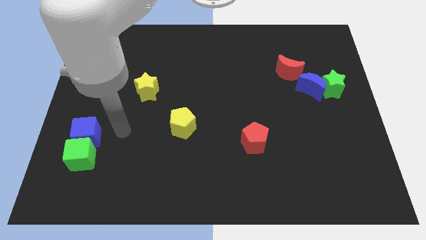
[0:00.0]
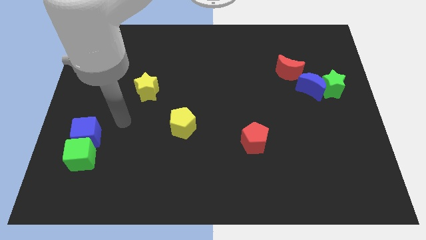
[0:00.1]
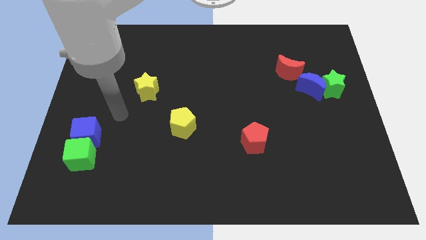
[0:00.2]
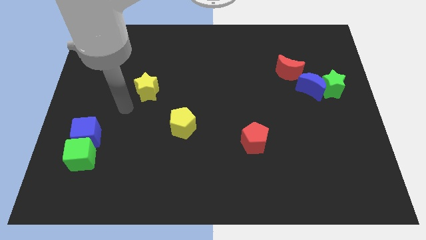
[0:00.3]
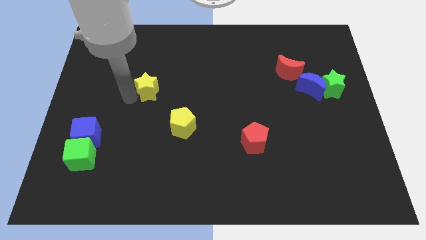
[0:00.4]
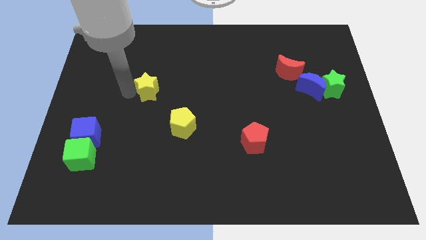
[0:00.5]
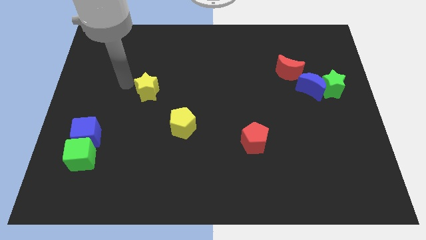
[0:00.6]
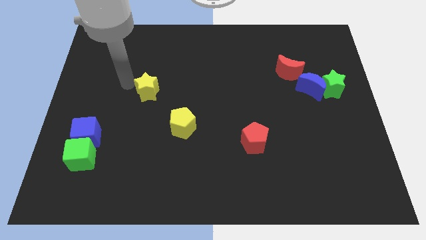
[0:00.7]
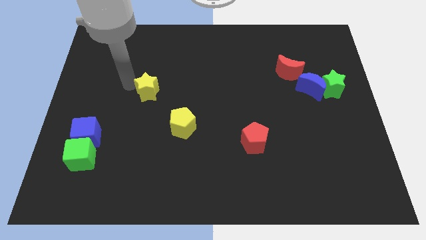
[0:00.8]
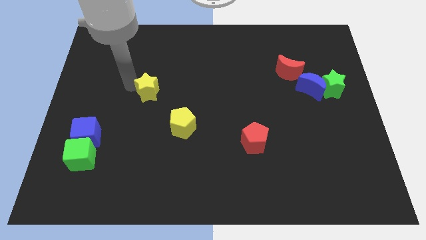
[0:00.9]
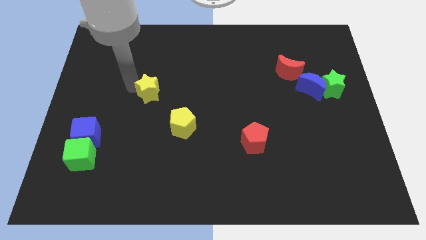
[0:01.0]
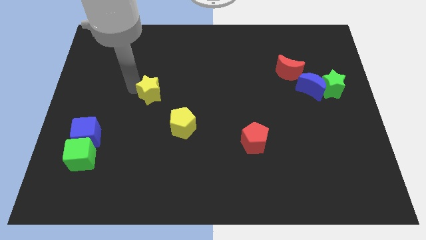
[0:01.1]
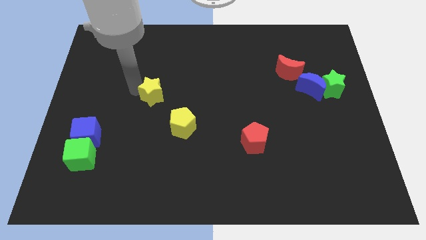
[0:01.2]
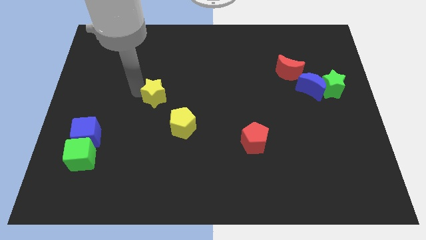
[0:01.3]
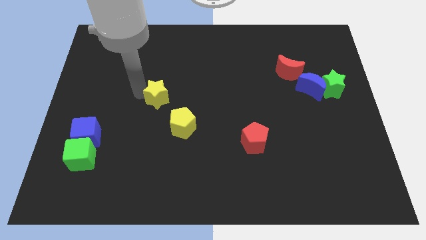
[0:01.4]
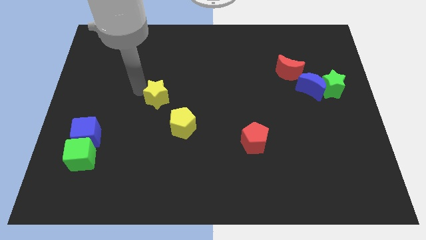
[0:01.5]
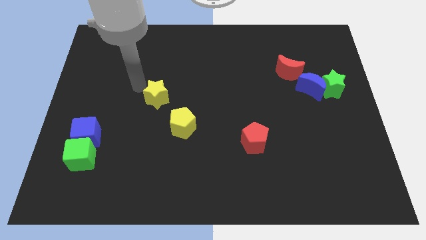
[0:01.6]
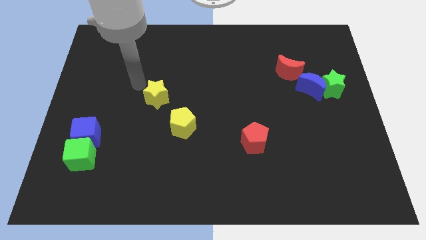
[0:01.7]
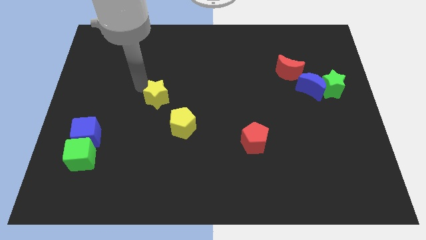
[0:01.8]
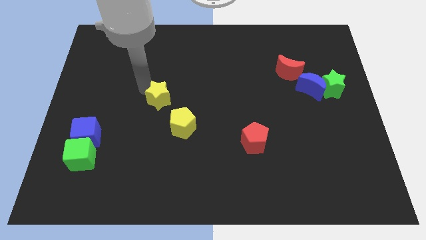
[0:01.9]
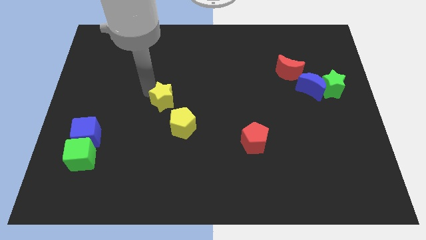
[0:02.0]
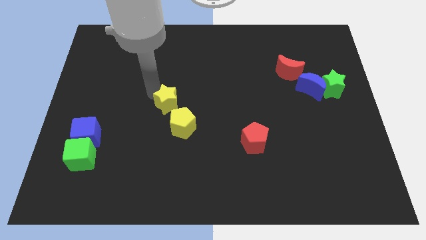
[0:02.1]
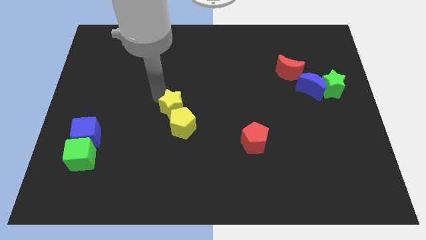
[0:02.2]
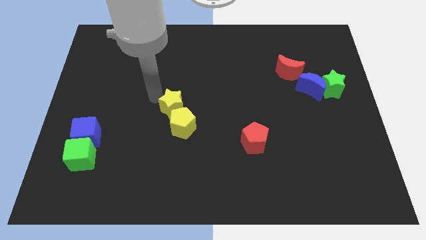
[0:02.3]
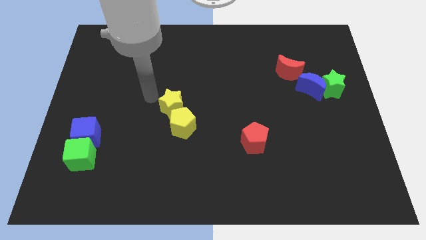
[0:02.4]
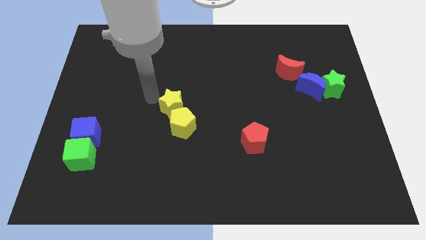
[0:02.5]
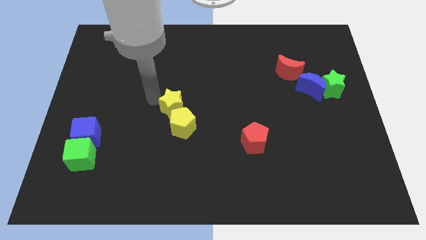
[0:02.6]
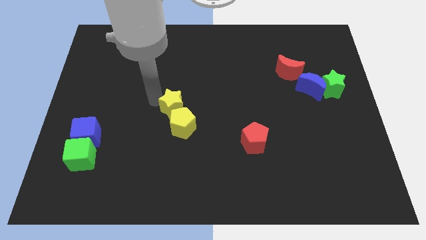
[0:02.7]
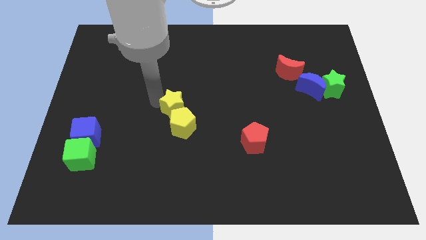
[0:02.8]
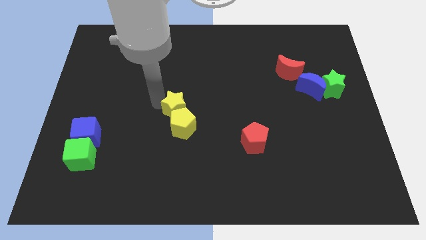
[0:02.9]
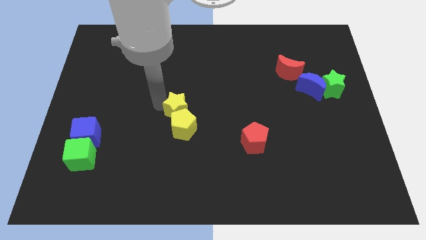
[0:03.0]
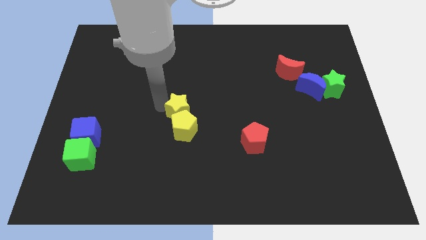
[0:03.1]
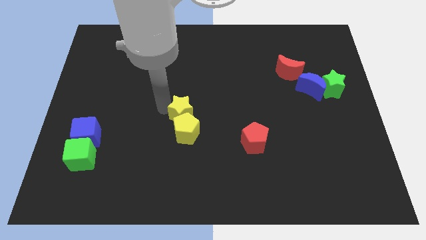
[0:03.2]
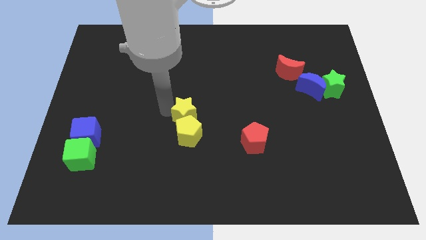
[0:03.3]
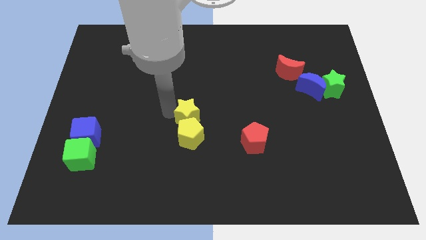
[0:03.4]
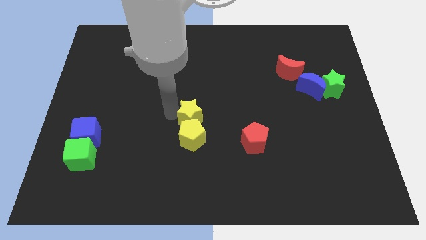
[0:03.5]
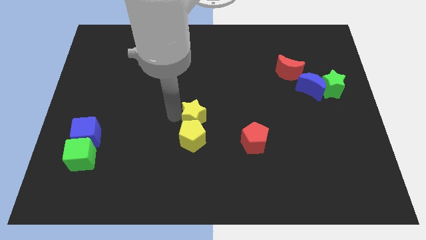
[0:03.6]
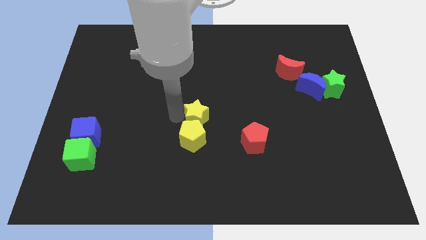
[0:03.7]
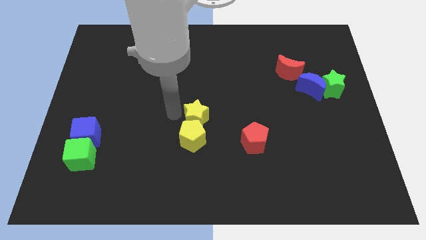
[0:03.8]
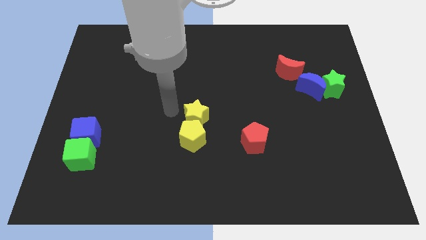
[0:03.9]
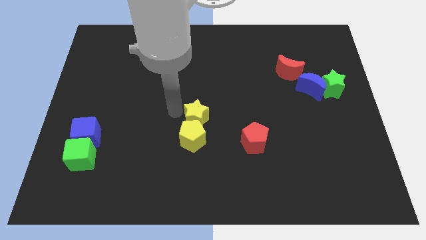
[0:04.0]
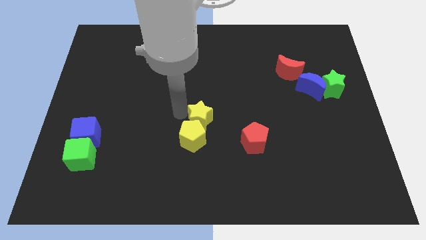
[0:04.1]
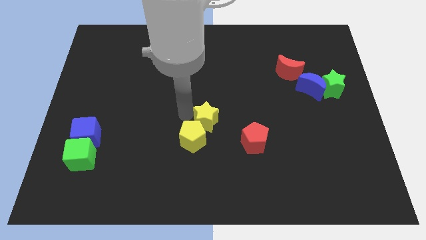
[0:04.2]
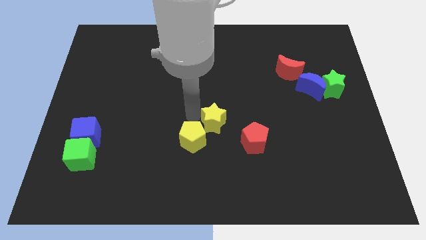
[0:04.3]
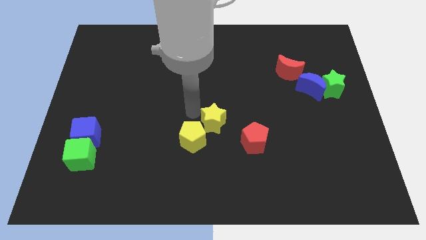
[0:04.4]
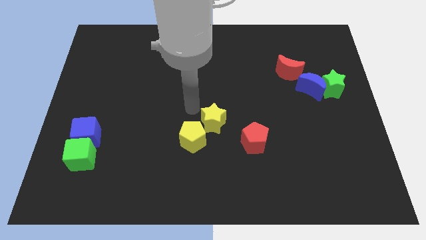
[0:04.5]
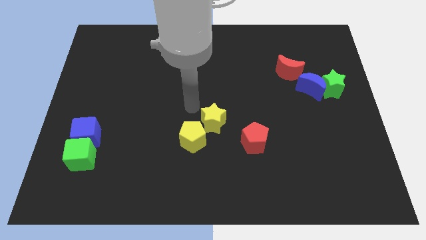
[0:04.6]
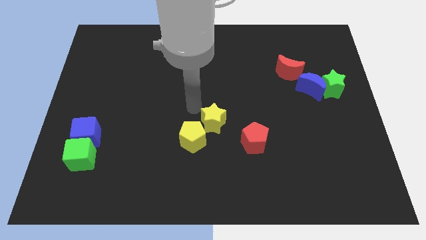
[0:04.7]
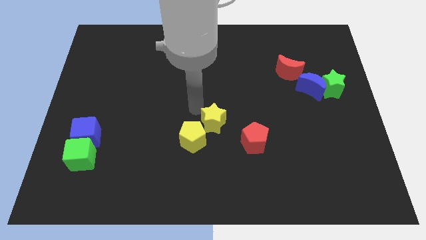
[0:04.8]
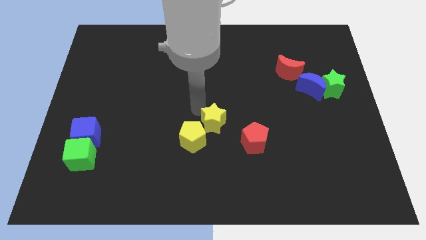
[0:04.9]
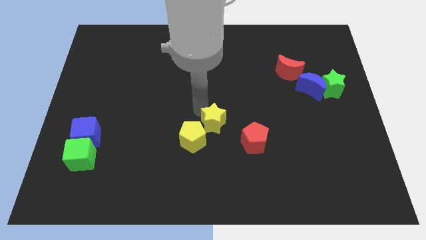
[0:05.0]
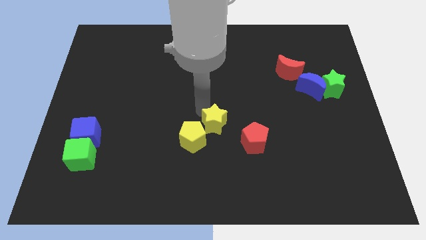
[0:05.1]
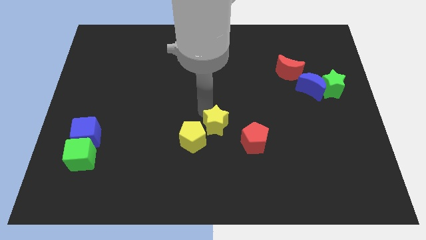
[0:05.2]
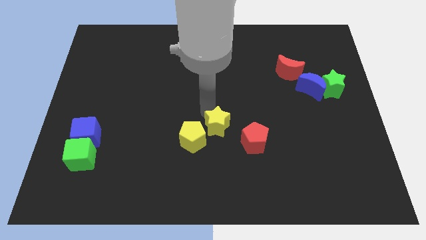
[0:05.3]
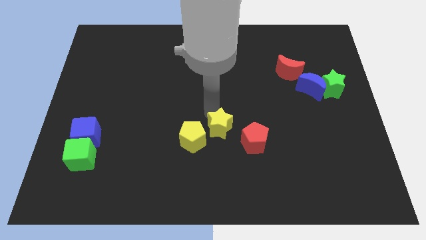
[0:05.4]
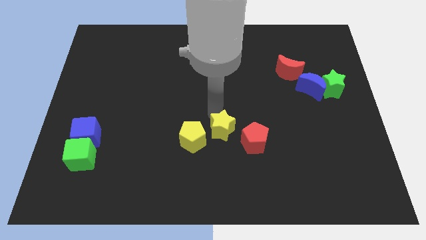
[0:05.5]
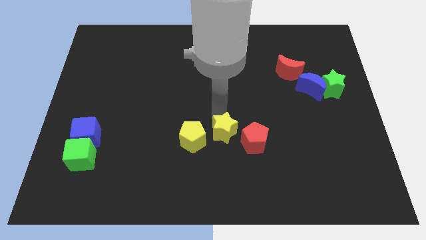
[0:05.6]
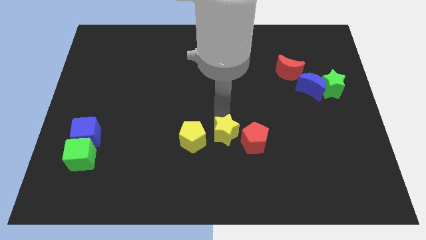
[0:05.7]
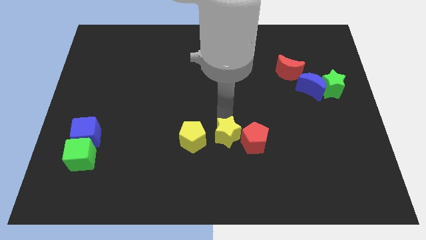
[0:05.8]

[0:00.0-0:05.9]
move the yellow star towards the red pentagon

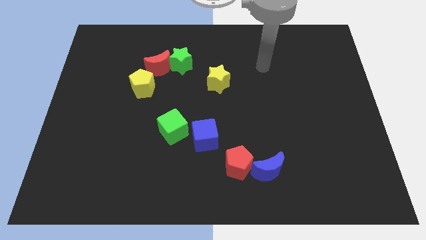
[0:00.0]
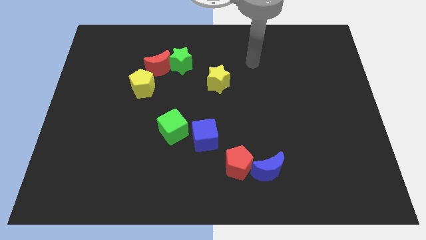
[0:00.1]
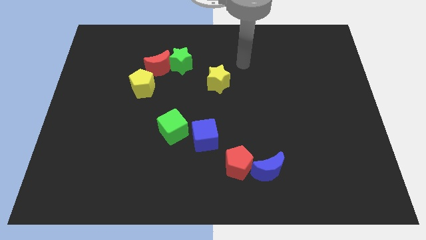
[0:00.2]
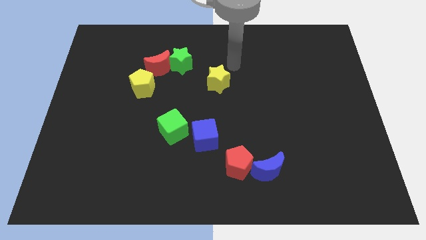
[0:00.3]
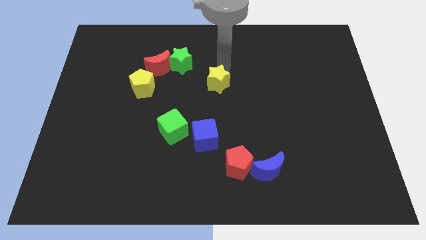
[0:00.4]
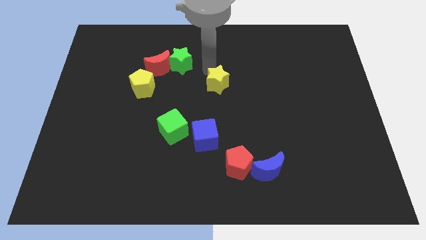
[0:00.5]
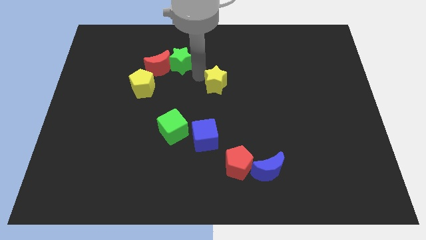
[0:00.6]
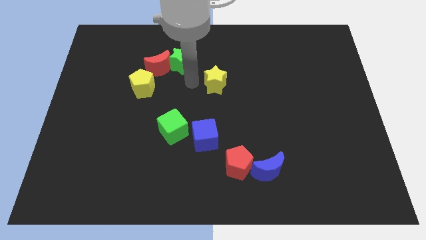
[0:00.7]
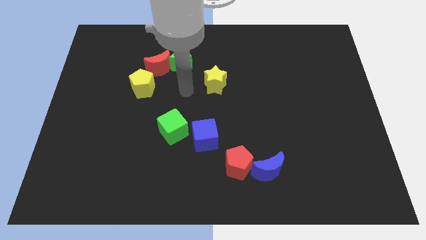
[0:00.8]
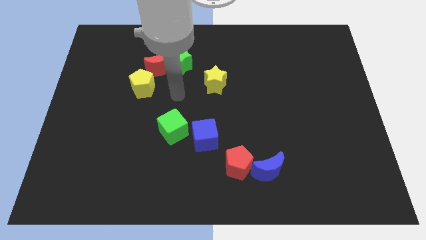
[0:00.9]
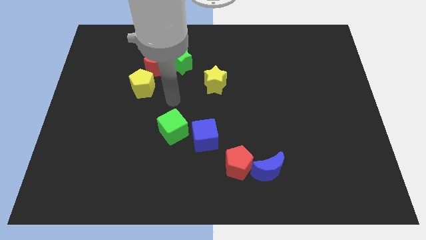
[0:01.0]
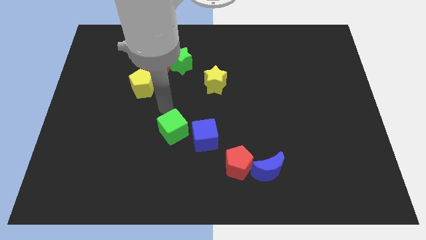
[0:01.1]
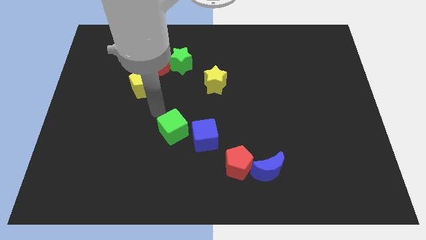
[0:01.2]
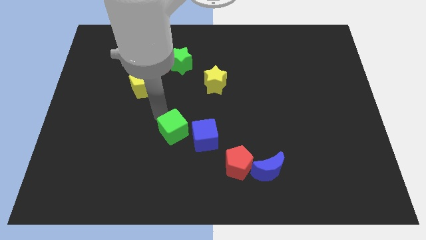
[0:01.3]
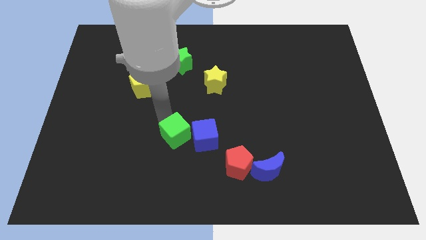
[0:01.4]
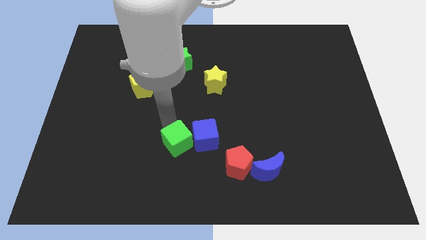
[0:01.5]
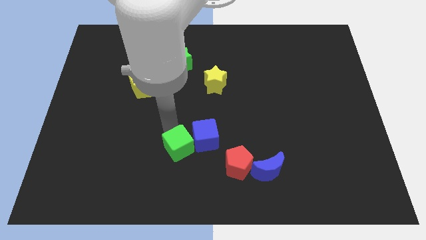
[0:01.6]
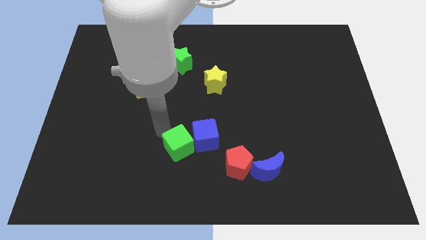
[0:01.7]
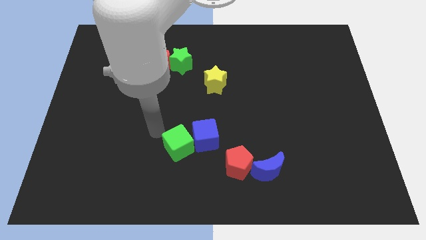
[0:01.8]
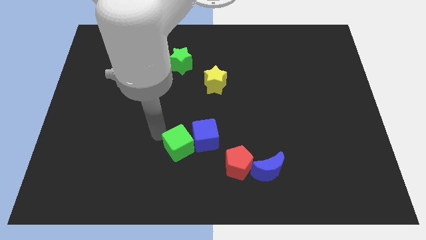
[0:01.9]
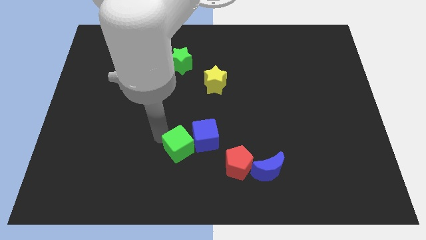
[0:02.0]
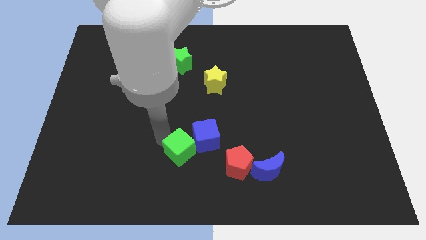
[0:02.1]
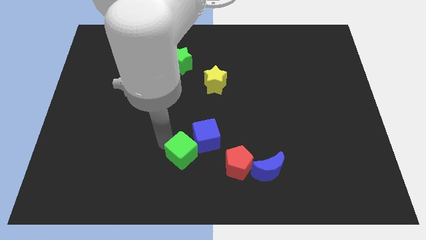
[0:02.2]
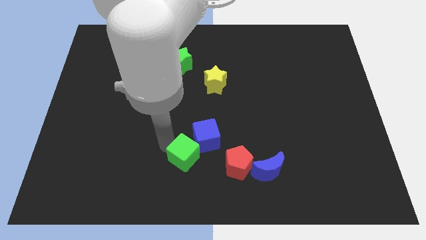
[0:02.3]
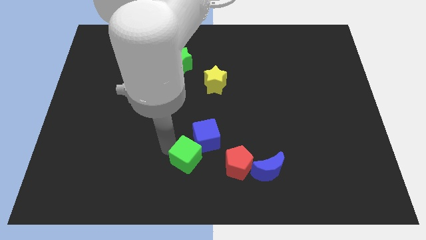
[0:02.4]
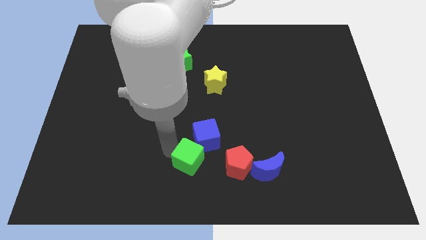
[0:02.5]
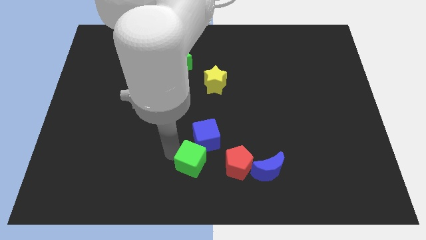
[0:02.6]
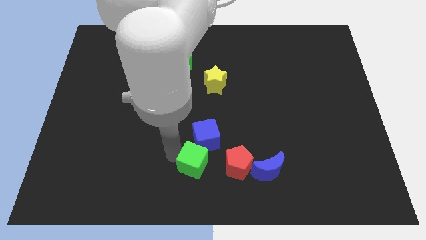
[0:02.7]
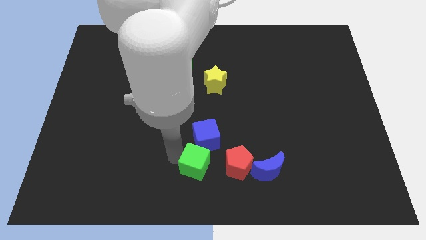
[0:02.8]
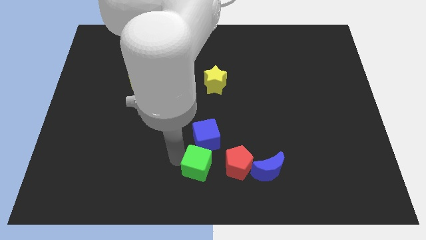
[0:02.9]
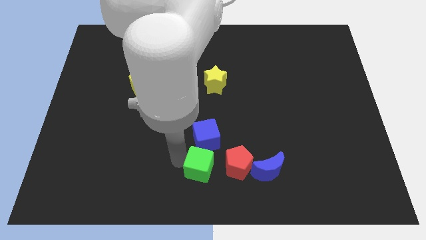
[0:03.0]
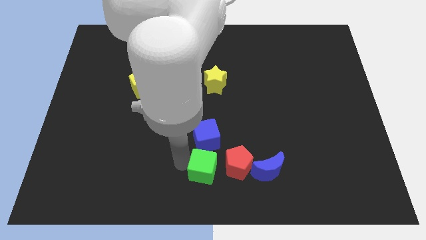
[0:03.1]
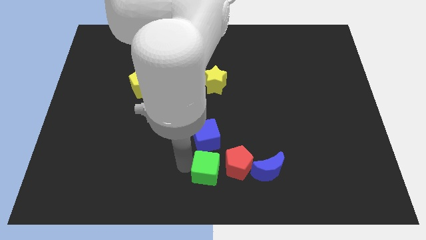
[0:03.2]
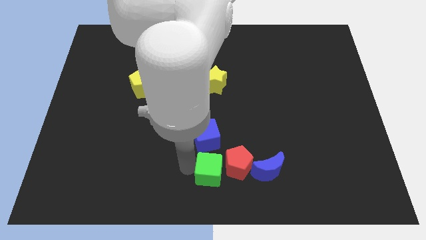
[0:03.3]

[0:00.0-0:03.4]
put the green cube towards the red pentagon
